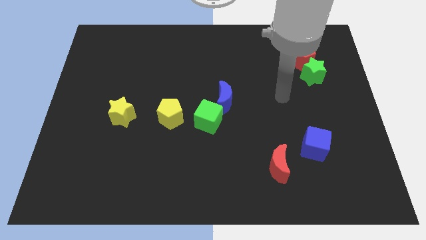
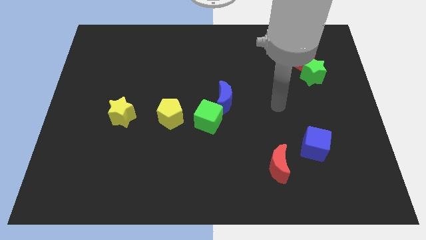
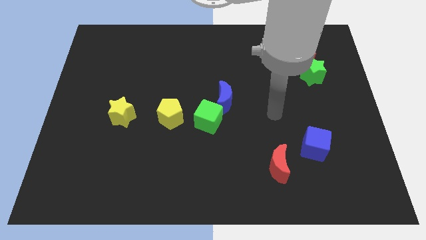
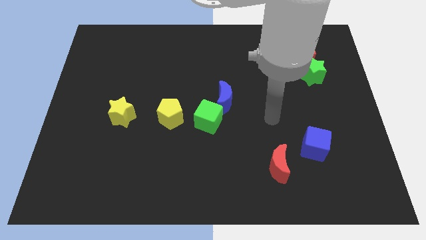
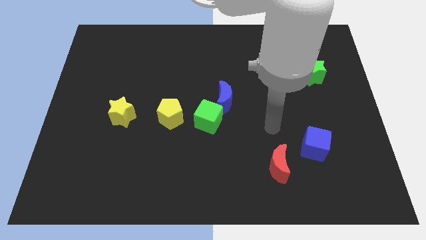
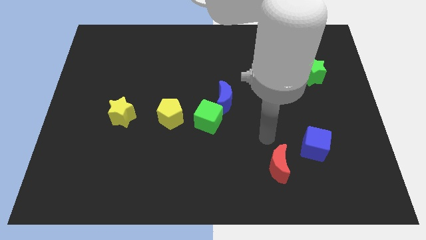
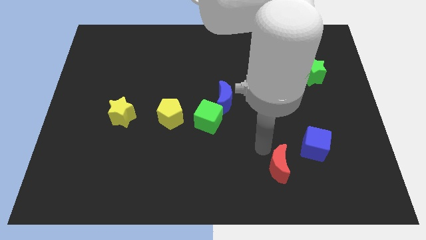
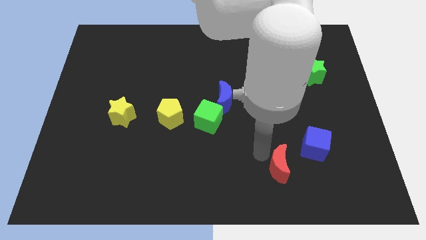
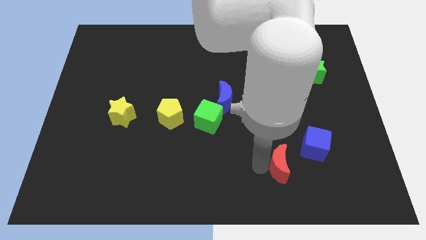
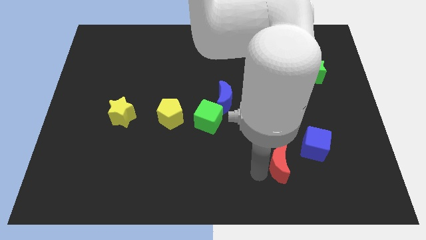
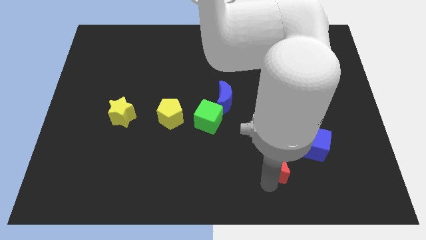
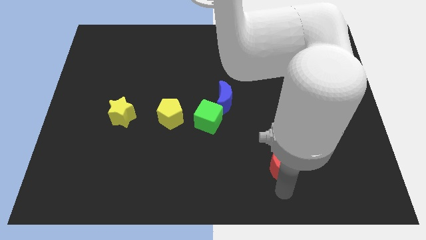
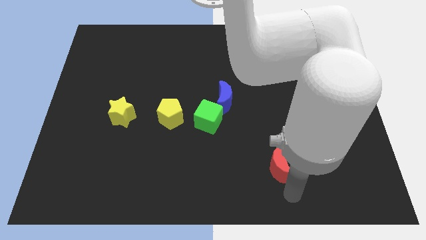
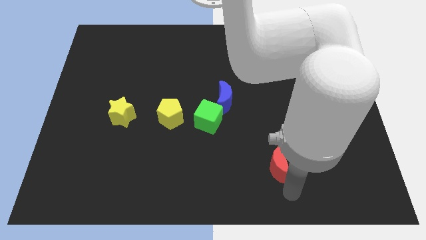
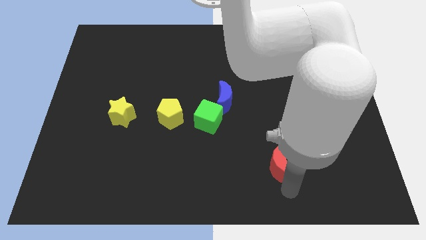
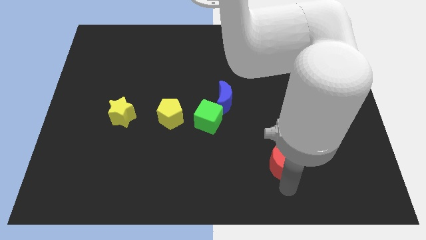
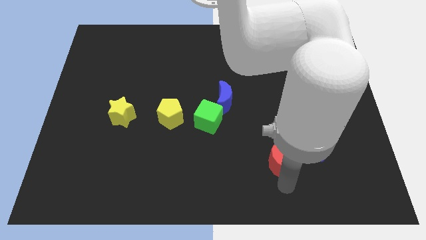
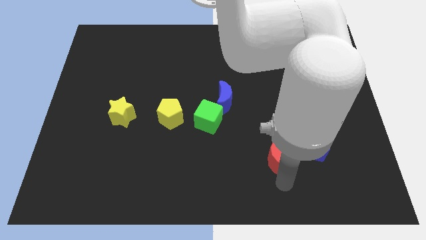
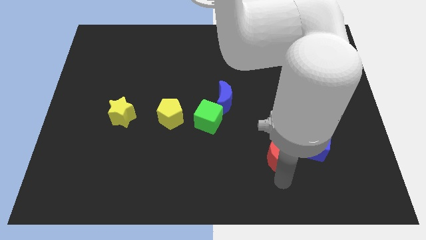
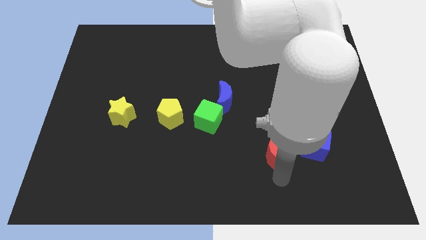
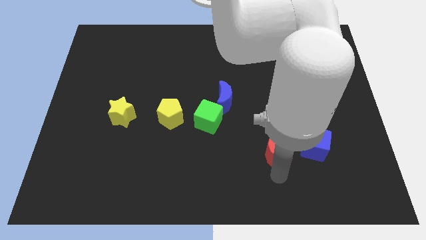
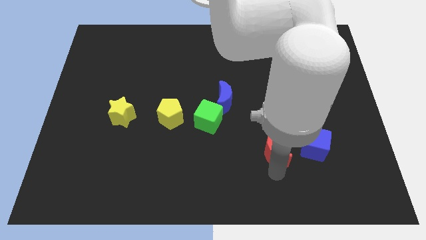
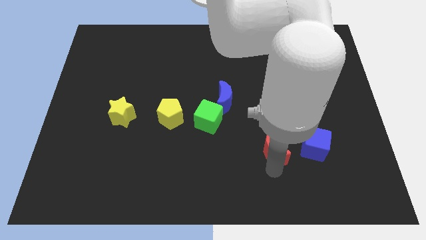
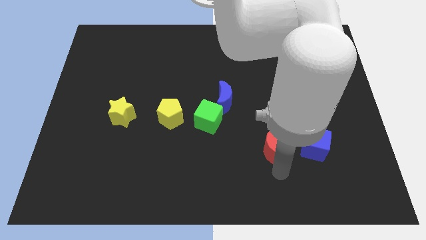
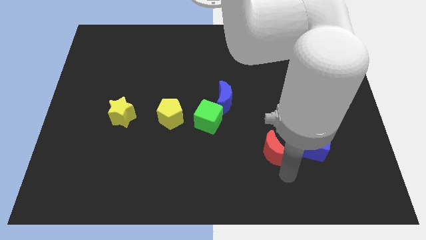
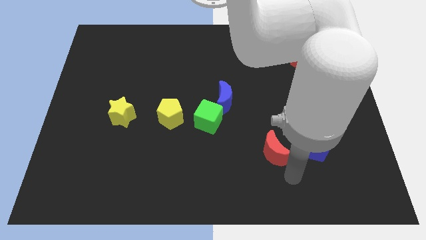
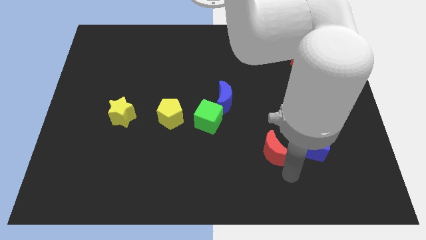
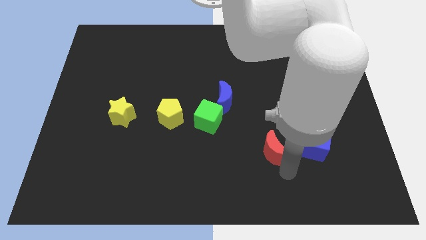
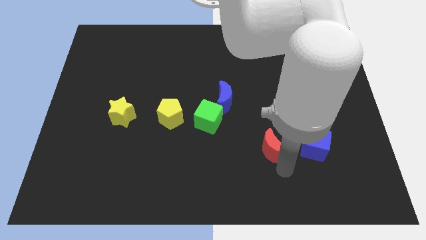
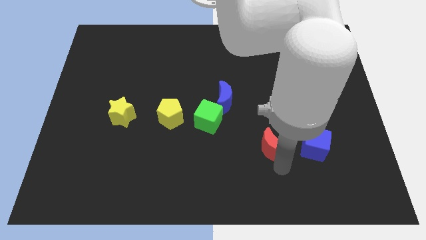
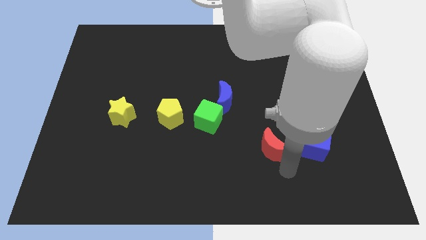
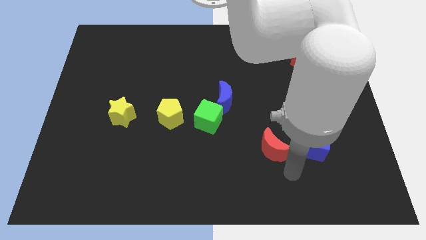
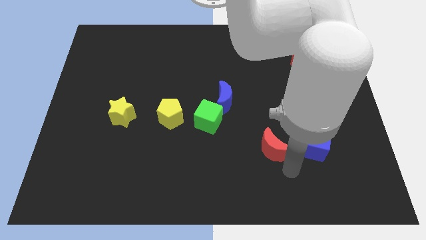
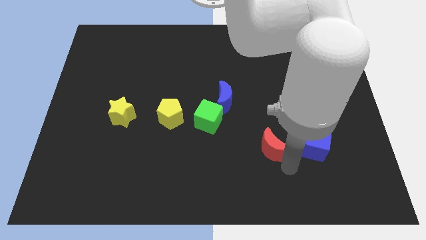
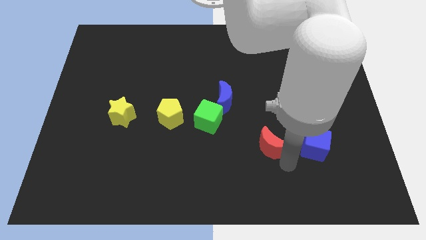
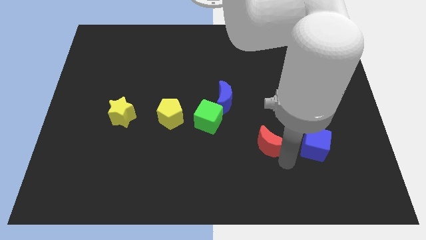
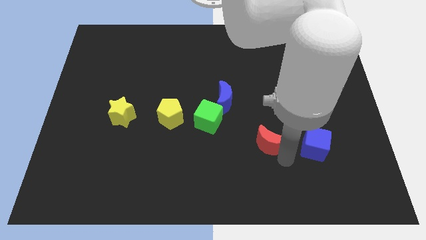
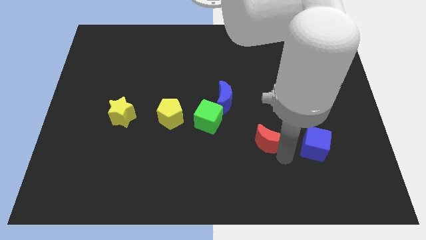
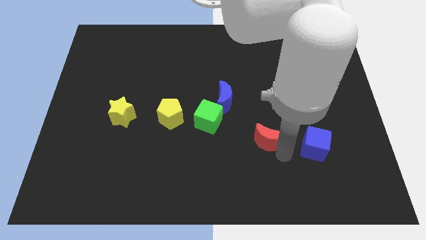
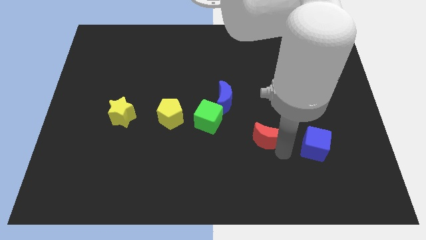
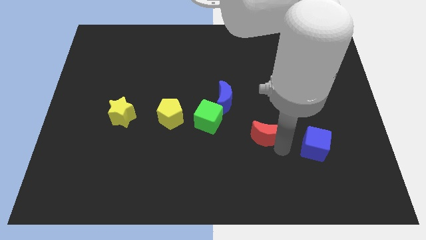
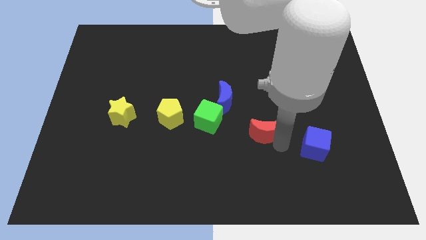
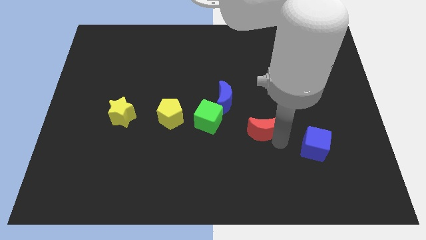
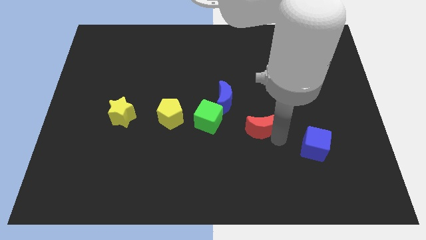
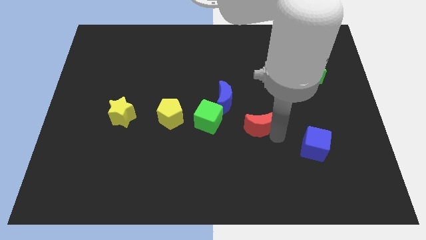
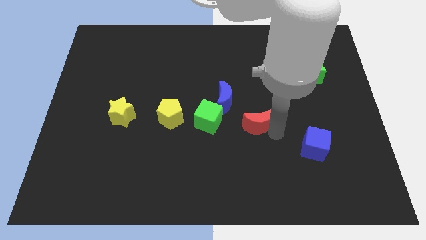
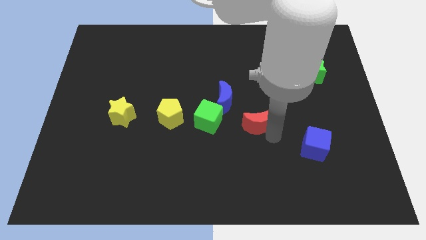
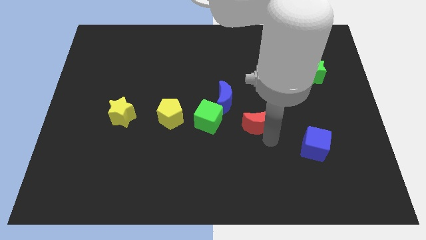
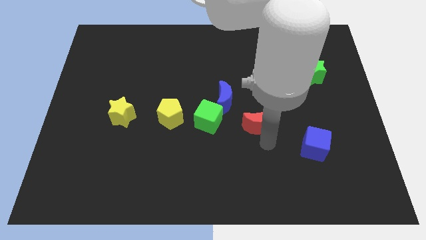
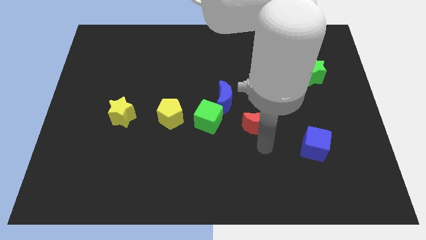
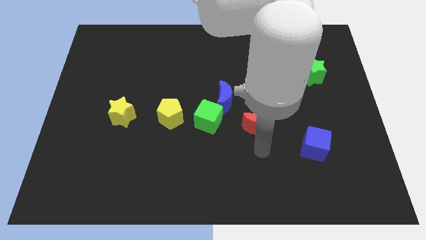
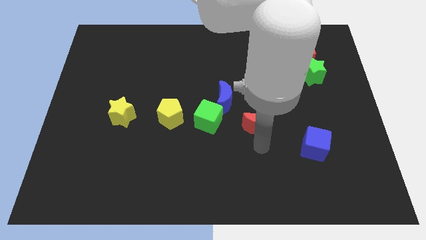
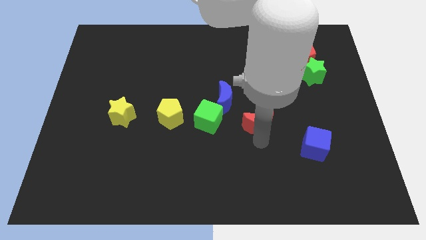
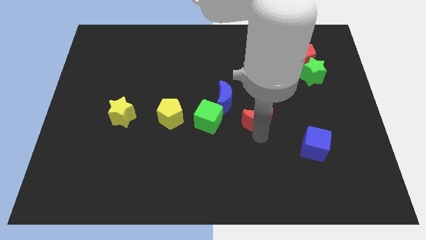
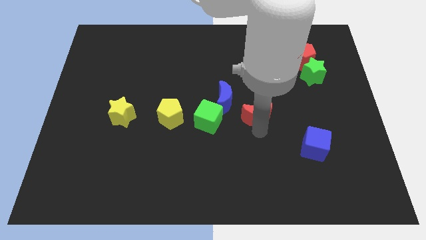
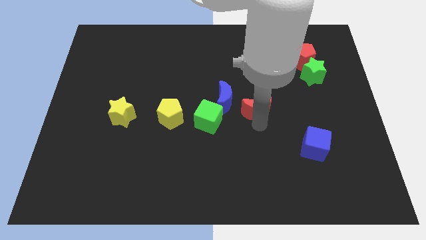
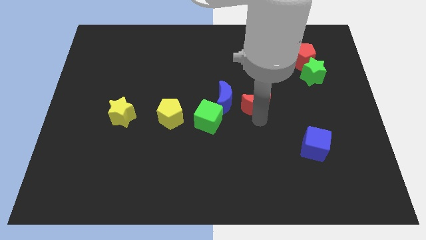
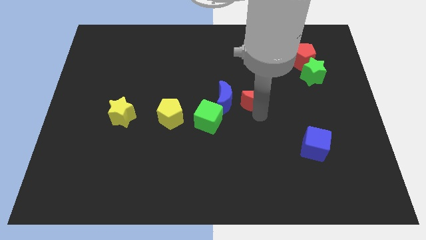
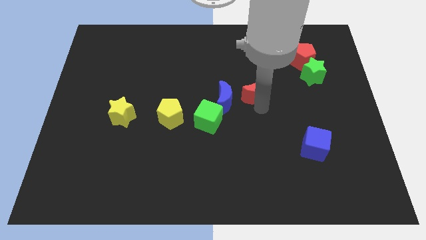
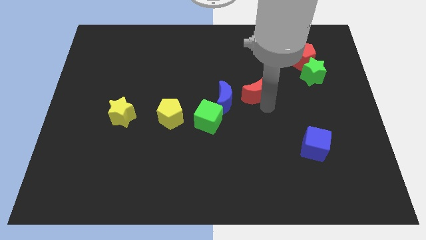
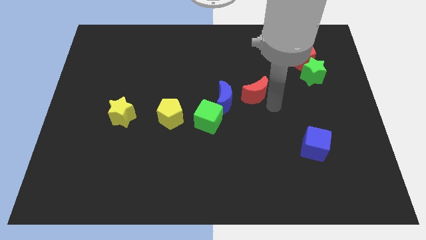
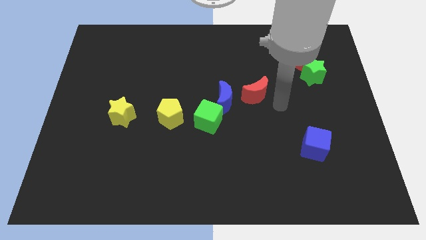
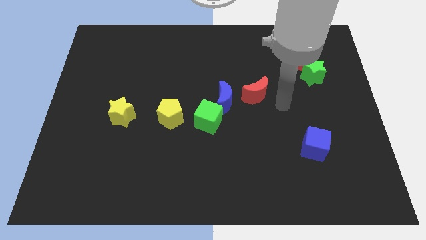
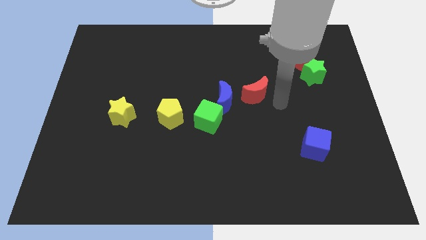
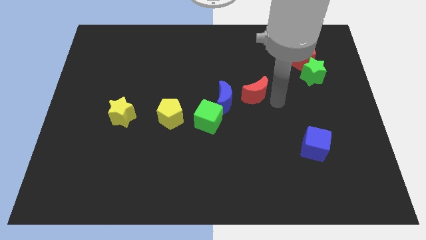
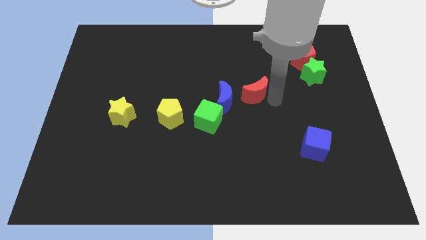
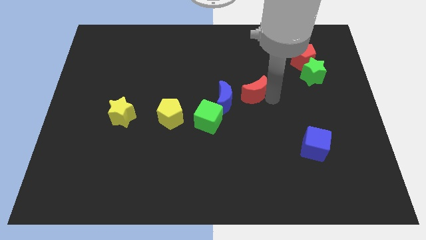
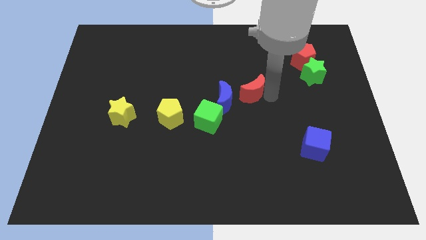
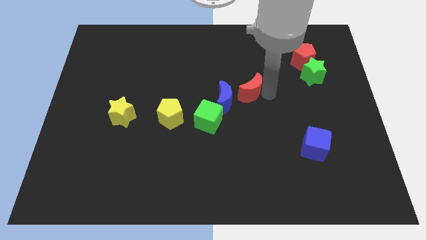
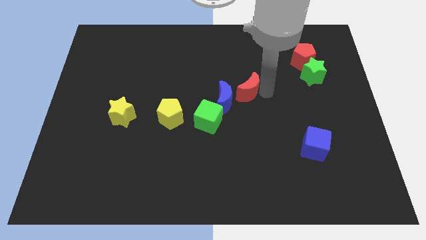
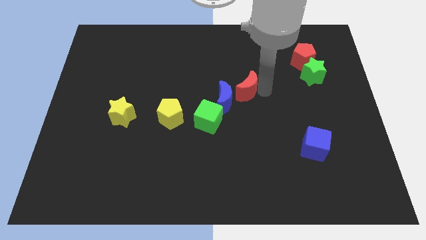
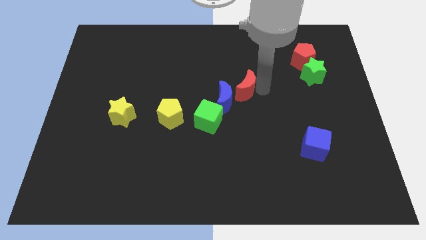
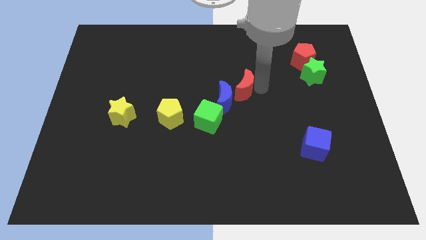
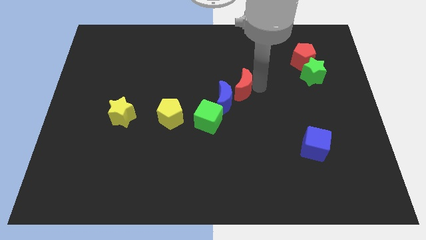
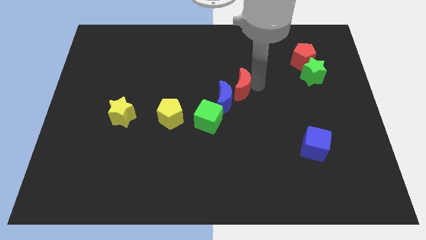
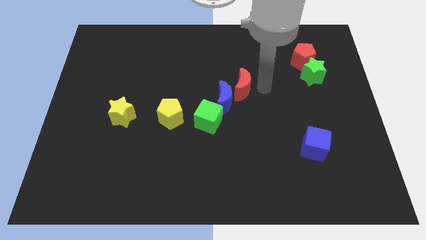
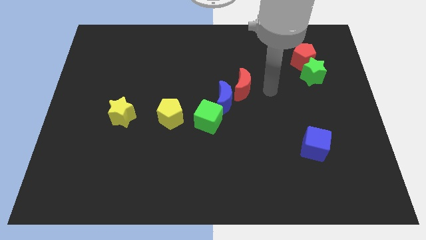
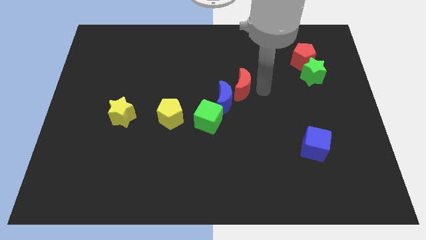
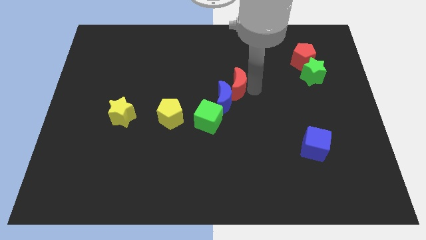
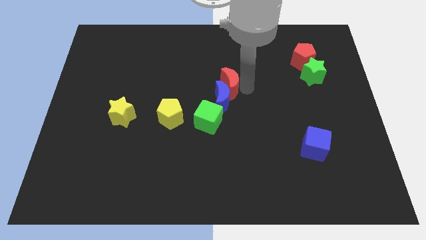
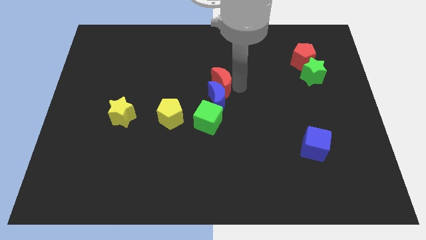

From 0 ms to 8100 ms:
push the red moon to the top side of the green cube
